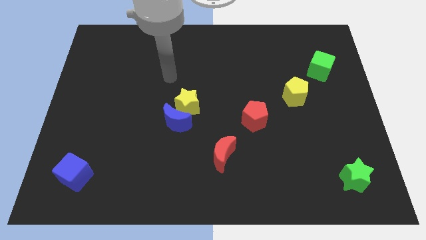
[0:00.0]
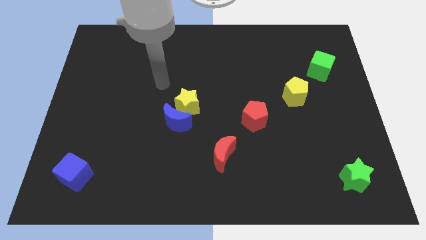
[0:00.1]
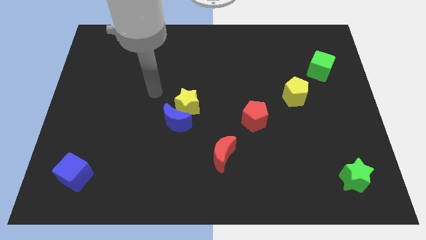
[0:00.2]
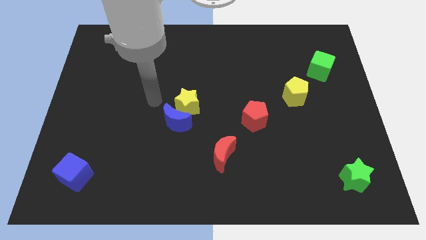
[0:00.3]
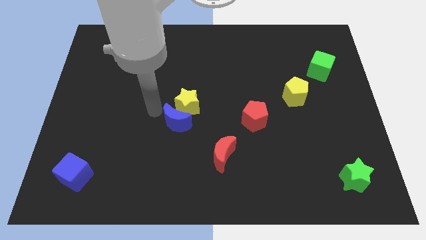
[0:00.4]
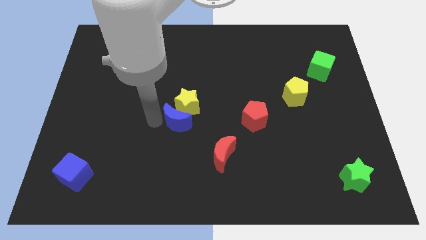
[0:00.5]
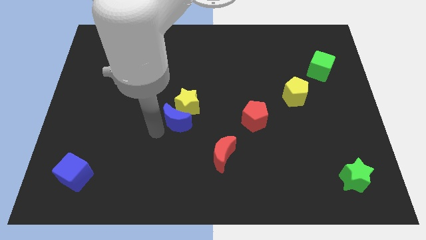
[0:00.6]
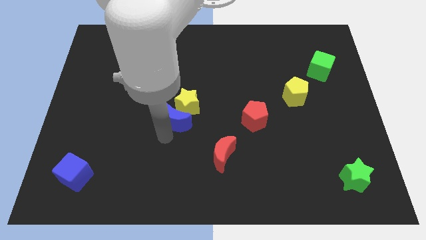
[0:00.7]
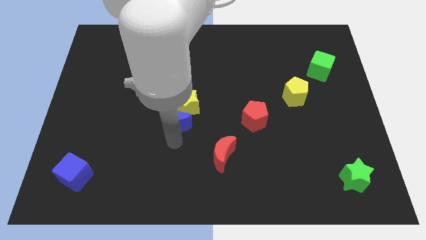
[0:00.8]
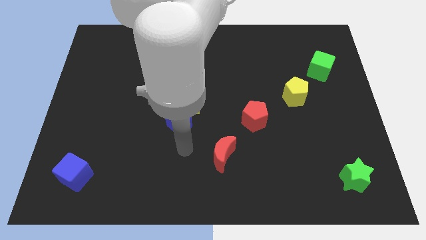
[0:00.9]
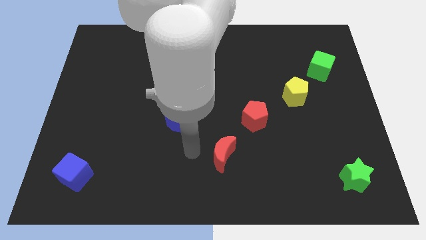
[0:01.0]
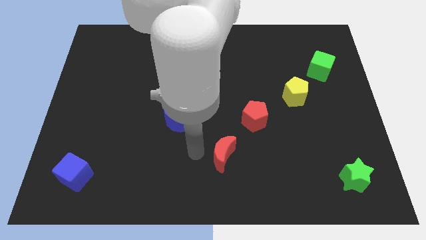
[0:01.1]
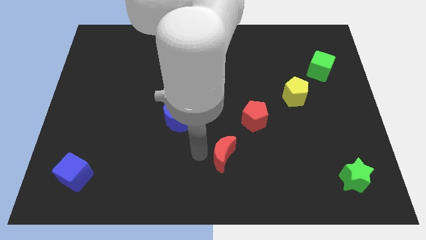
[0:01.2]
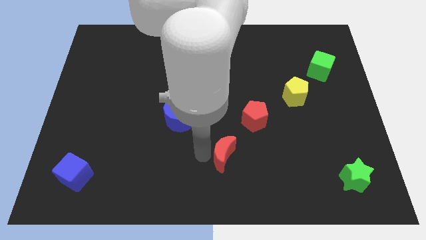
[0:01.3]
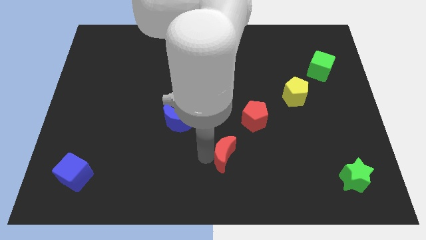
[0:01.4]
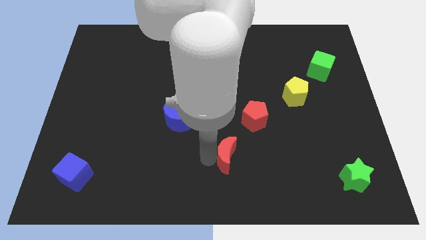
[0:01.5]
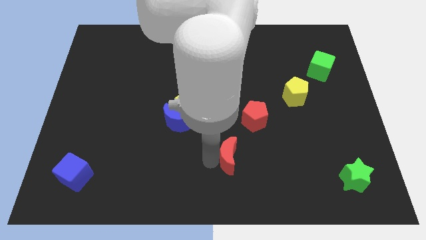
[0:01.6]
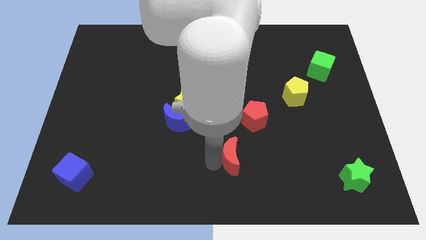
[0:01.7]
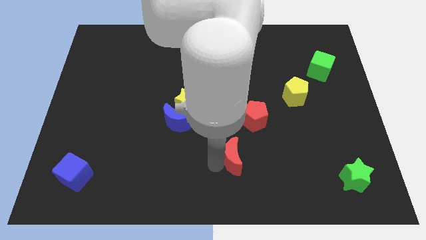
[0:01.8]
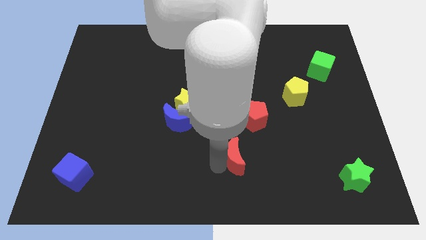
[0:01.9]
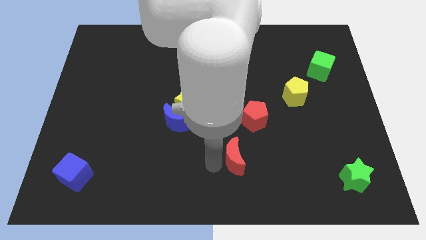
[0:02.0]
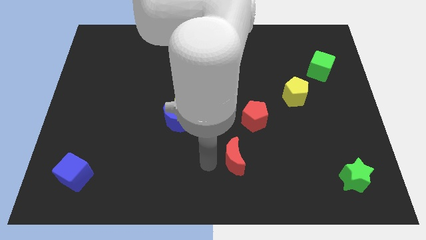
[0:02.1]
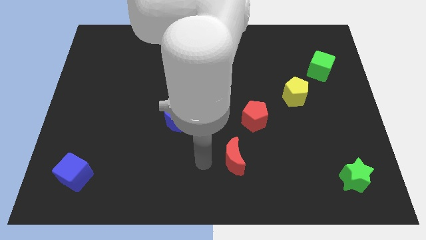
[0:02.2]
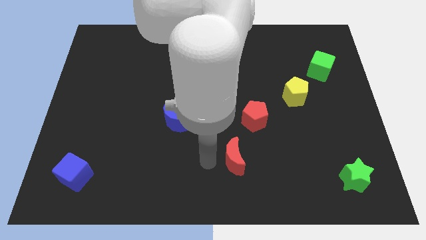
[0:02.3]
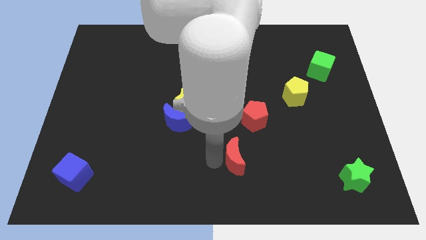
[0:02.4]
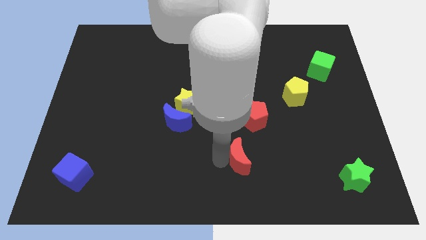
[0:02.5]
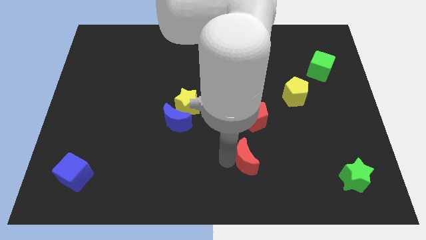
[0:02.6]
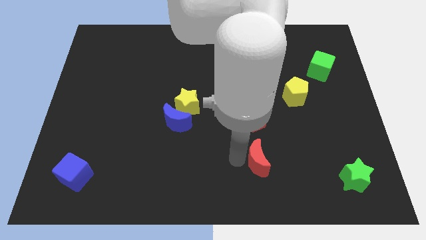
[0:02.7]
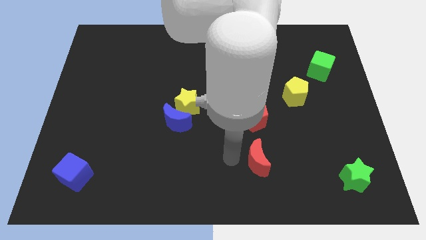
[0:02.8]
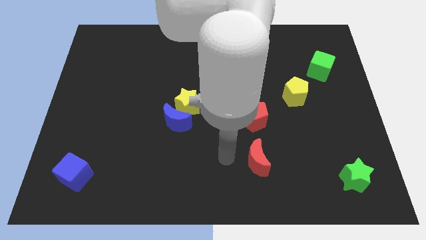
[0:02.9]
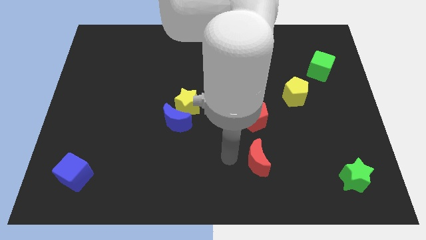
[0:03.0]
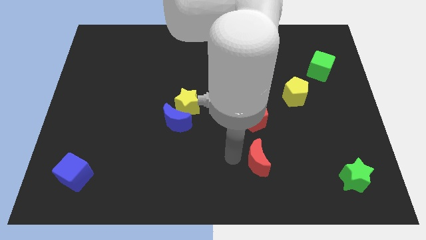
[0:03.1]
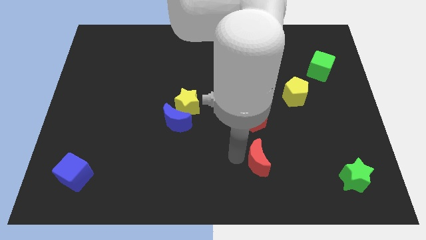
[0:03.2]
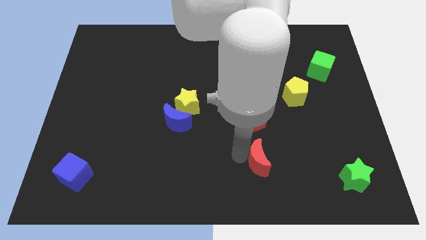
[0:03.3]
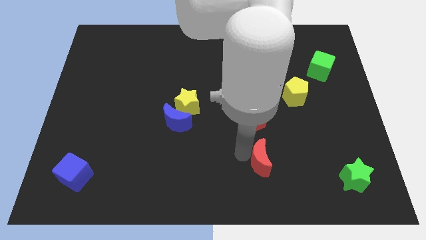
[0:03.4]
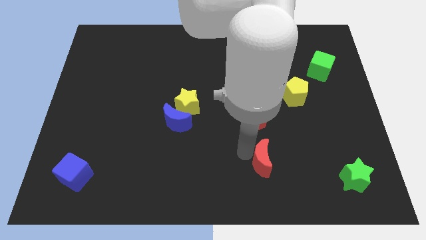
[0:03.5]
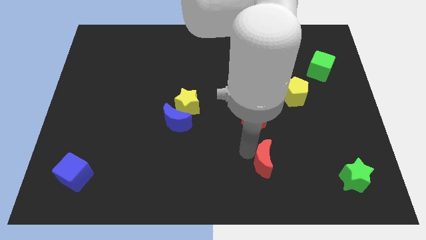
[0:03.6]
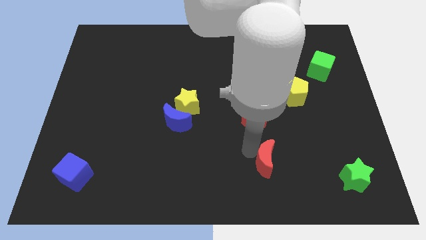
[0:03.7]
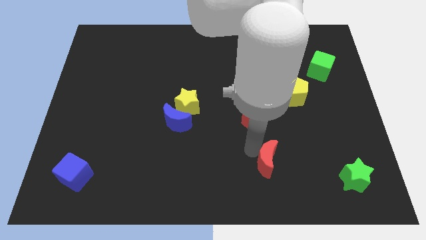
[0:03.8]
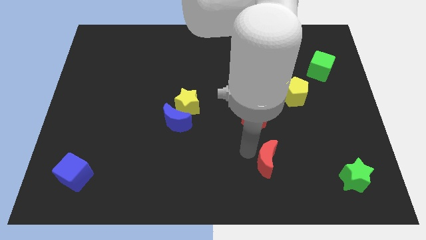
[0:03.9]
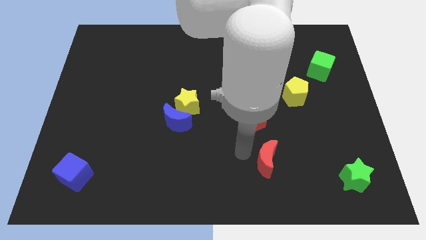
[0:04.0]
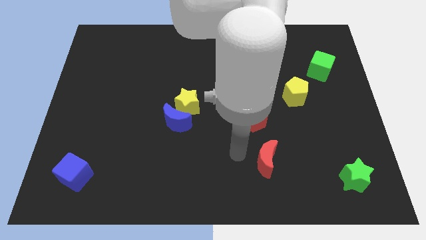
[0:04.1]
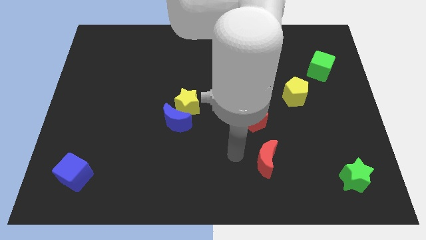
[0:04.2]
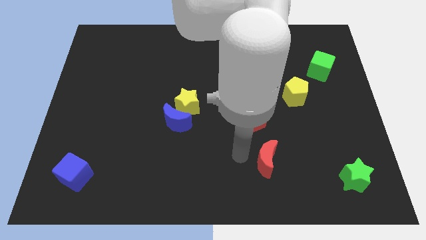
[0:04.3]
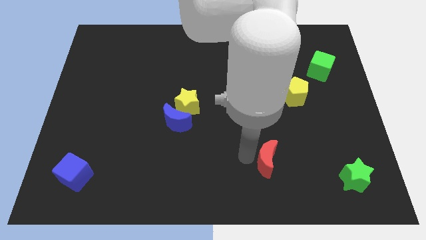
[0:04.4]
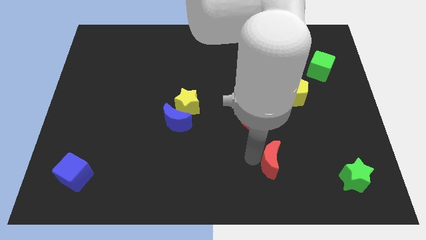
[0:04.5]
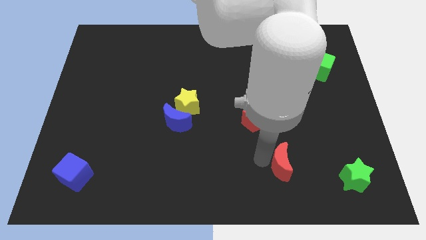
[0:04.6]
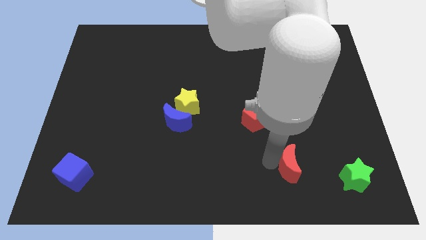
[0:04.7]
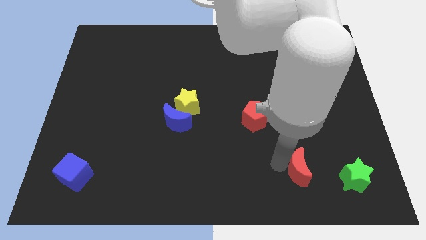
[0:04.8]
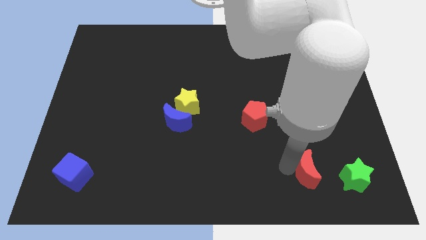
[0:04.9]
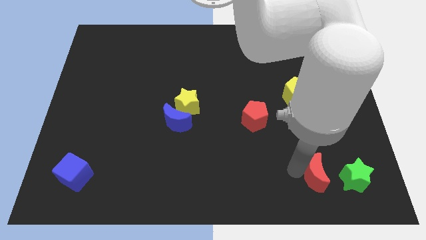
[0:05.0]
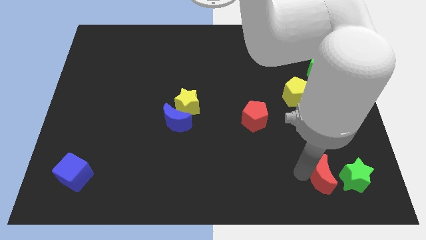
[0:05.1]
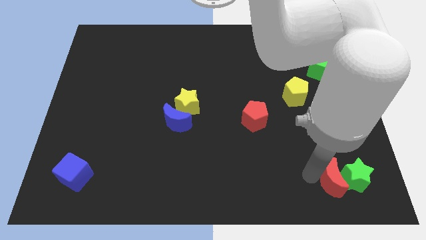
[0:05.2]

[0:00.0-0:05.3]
slide the red moon next to the green star

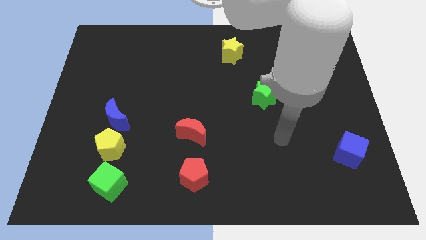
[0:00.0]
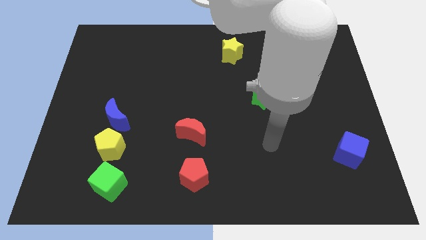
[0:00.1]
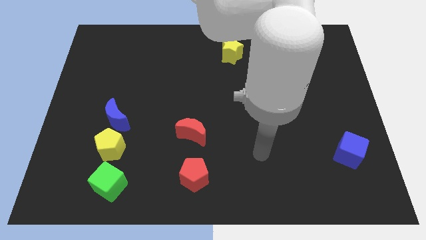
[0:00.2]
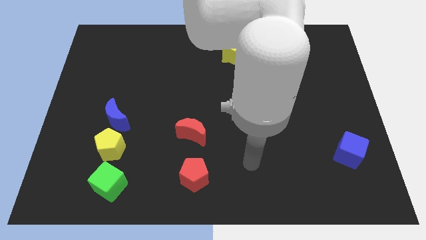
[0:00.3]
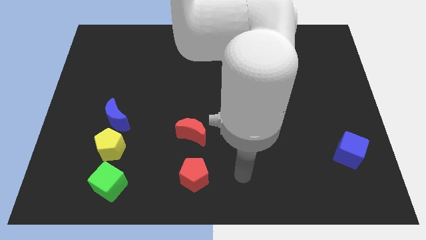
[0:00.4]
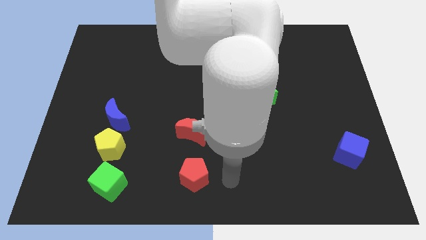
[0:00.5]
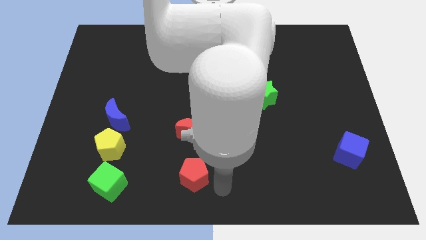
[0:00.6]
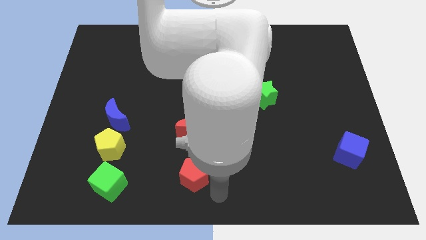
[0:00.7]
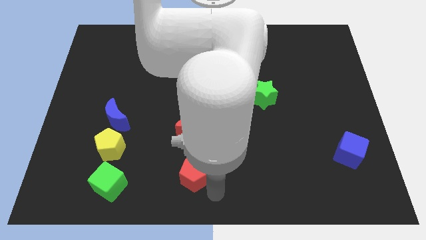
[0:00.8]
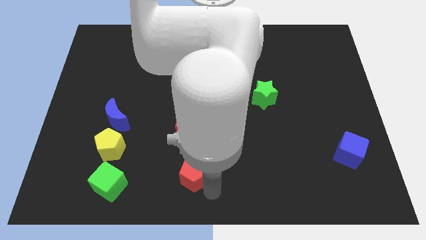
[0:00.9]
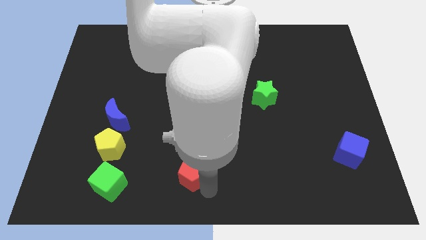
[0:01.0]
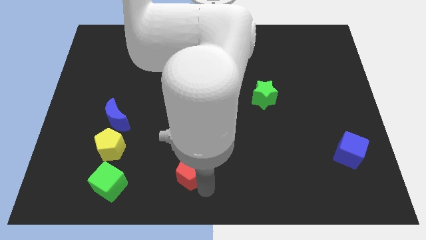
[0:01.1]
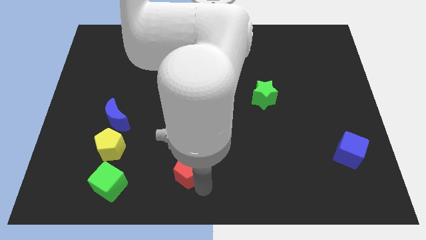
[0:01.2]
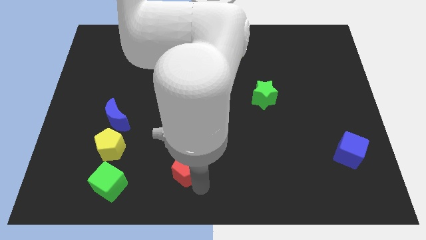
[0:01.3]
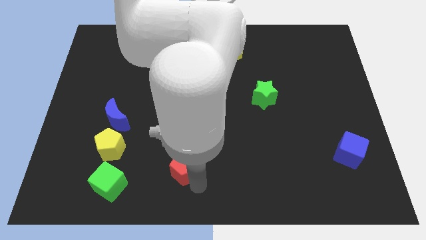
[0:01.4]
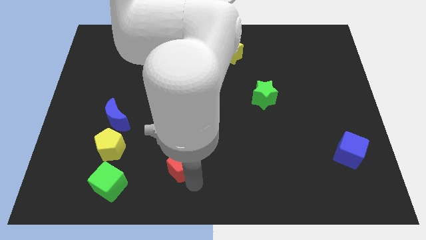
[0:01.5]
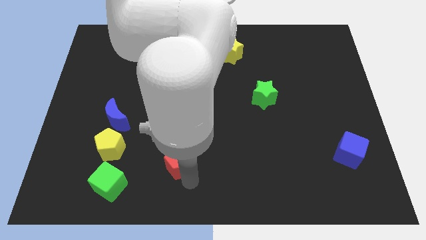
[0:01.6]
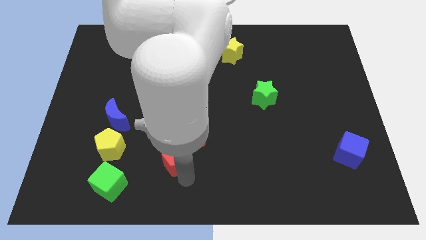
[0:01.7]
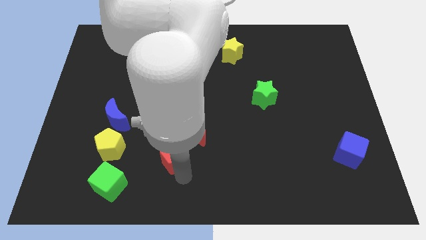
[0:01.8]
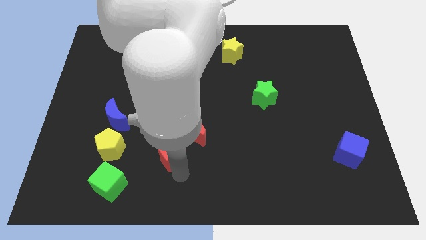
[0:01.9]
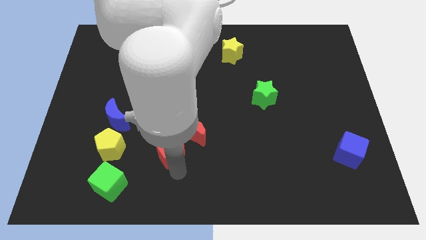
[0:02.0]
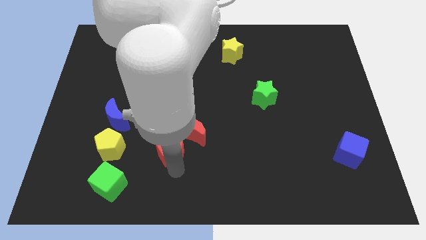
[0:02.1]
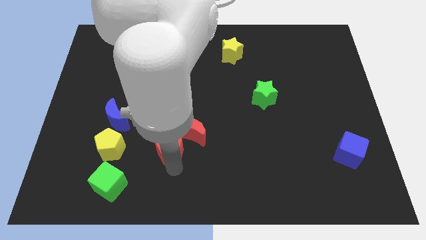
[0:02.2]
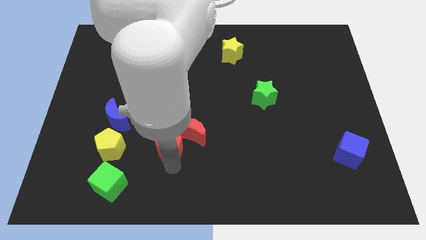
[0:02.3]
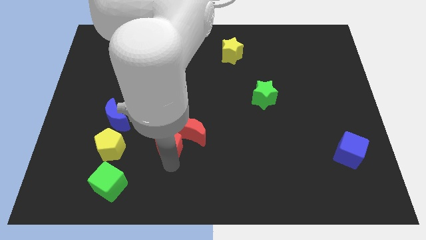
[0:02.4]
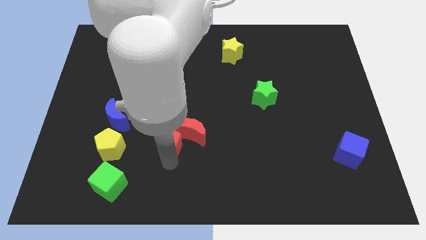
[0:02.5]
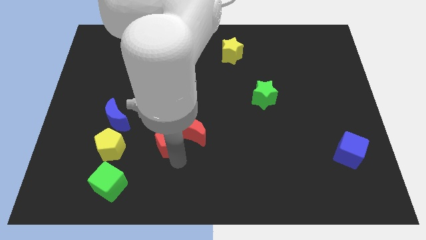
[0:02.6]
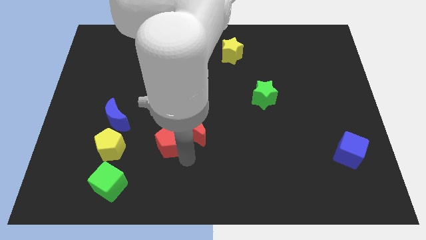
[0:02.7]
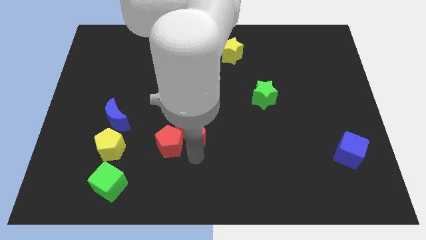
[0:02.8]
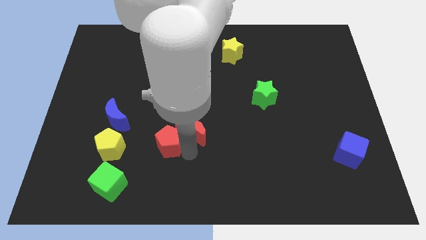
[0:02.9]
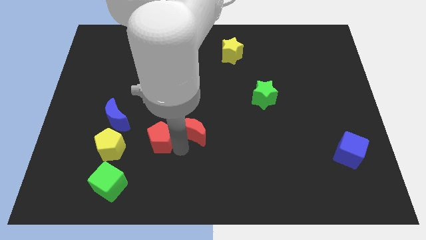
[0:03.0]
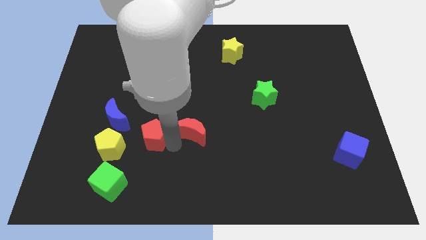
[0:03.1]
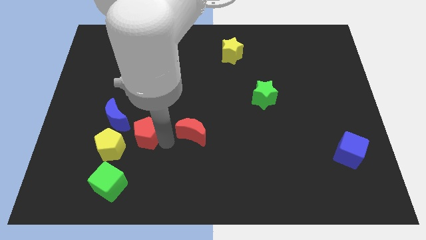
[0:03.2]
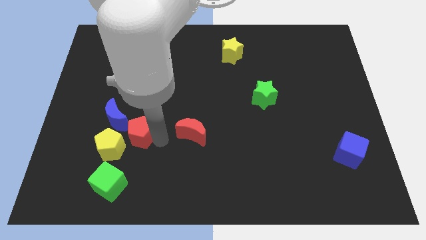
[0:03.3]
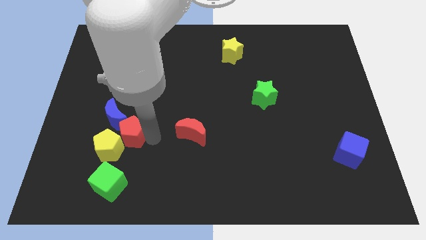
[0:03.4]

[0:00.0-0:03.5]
push the red pentagon next to the blue moon
